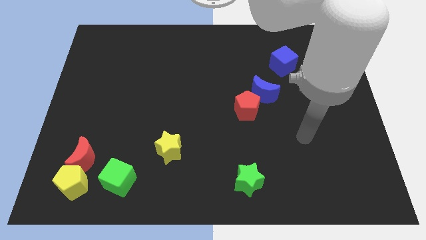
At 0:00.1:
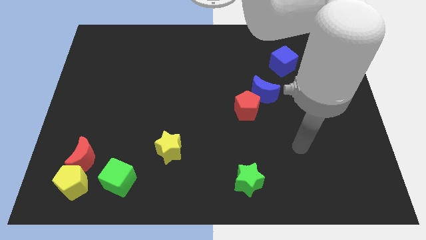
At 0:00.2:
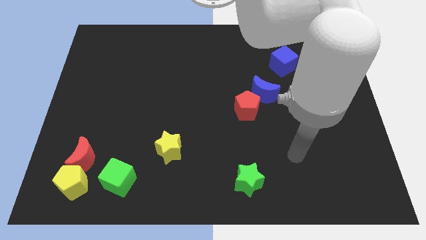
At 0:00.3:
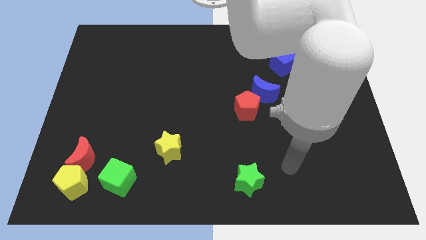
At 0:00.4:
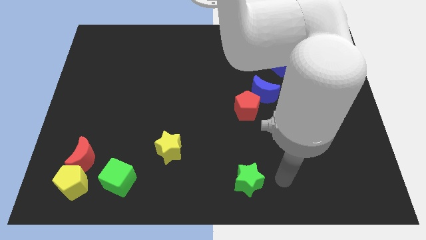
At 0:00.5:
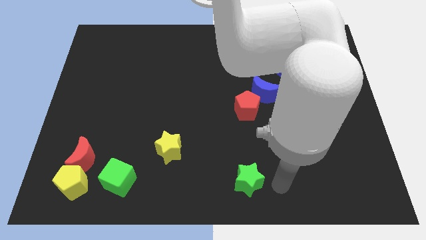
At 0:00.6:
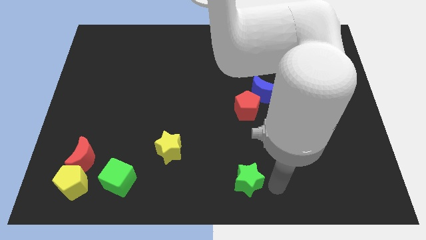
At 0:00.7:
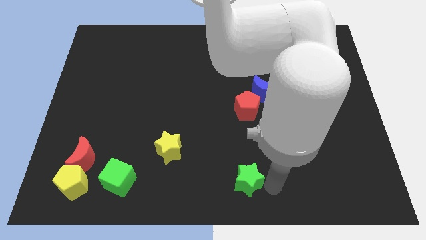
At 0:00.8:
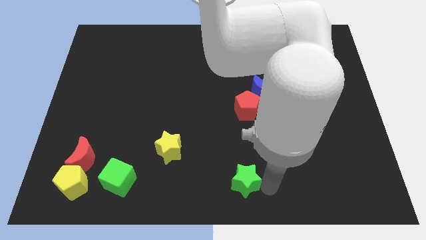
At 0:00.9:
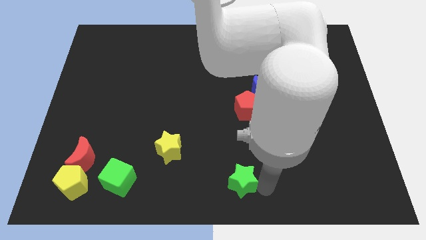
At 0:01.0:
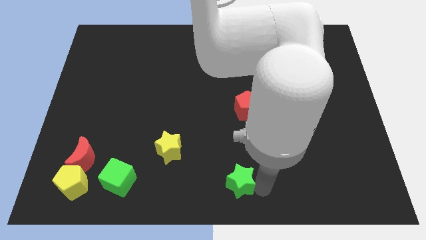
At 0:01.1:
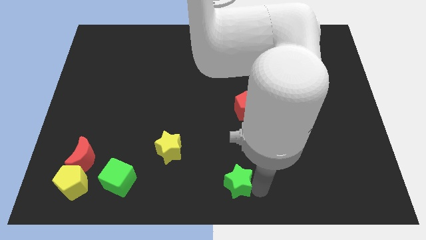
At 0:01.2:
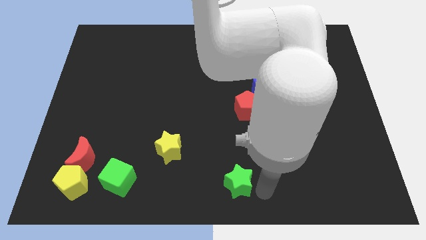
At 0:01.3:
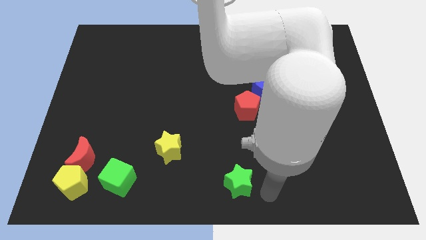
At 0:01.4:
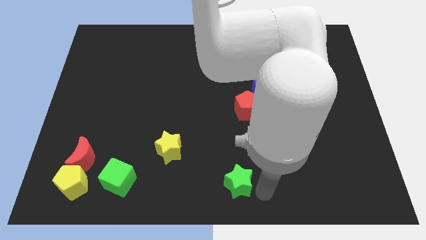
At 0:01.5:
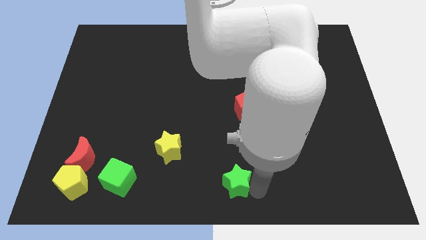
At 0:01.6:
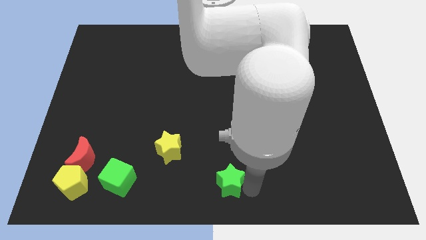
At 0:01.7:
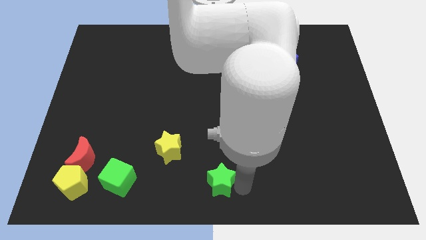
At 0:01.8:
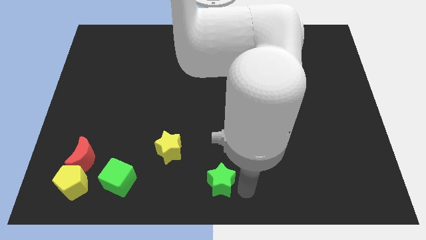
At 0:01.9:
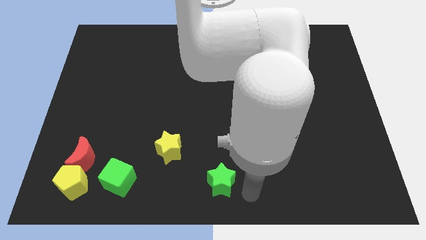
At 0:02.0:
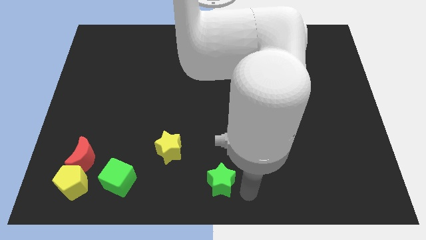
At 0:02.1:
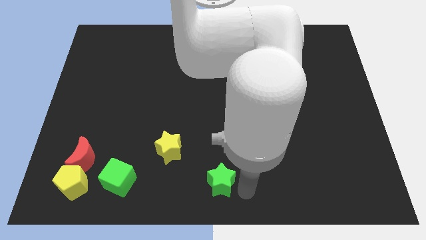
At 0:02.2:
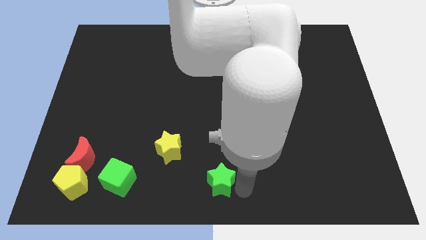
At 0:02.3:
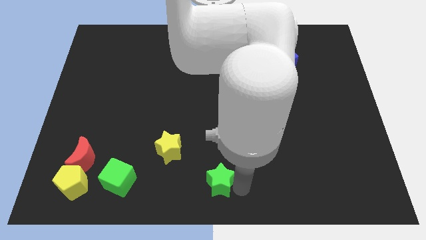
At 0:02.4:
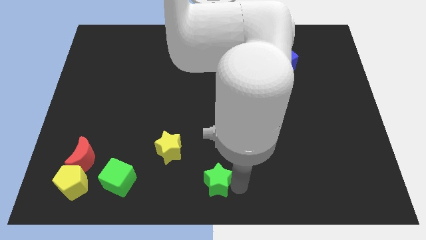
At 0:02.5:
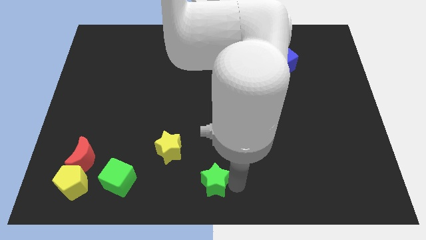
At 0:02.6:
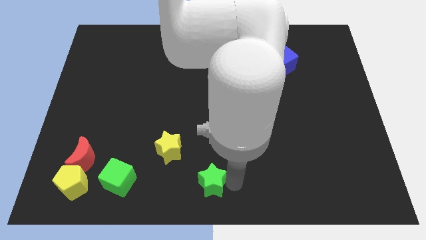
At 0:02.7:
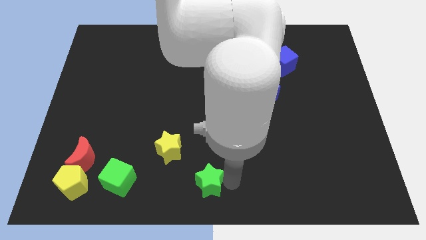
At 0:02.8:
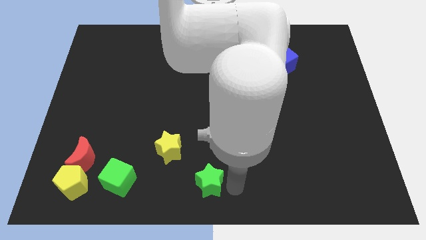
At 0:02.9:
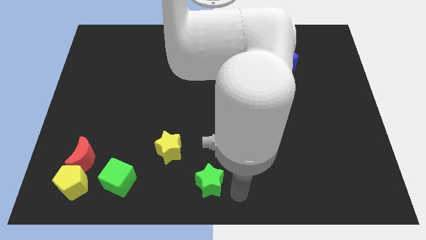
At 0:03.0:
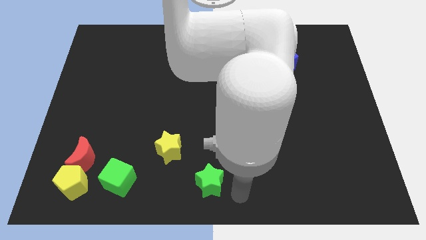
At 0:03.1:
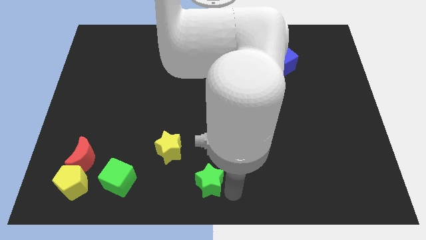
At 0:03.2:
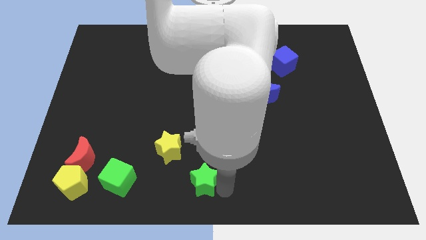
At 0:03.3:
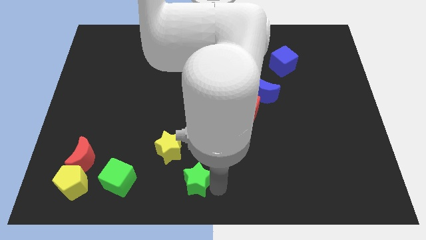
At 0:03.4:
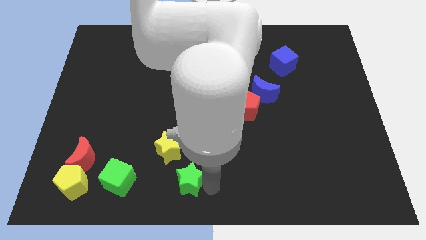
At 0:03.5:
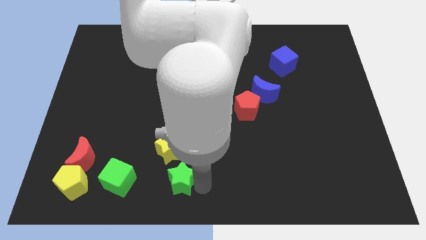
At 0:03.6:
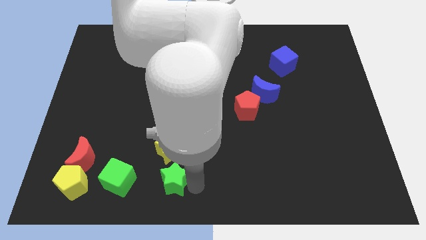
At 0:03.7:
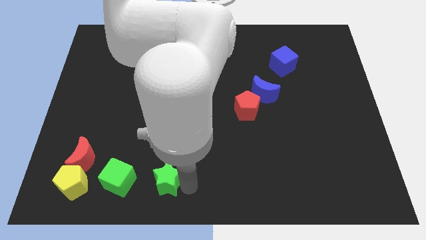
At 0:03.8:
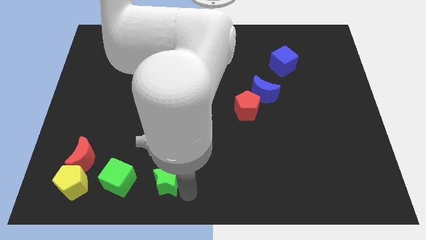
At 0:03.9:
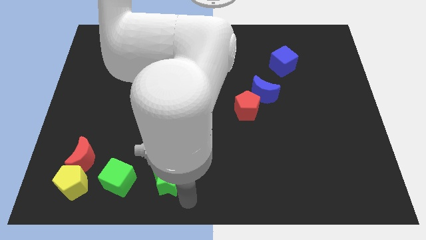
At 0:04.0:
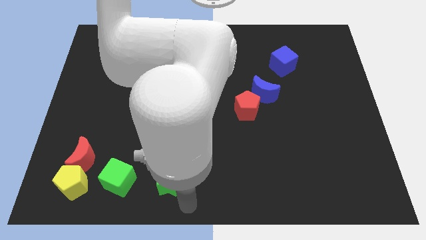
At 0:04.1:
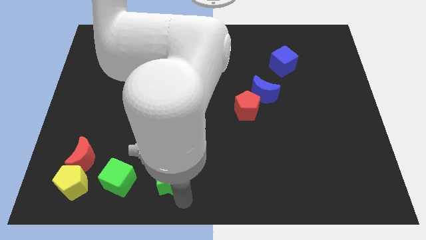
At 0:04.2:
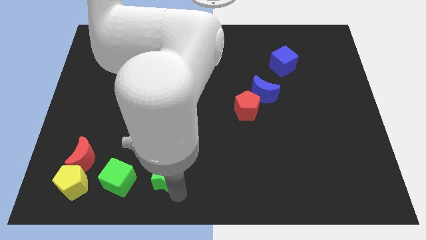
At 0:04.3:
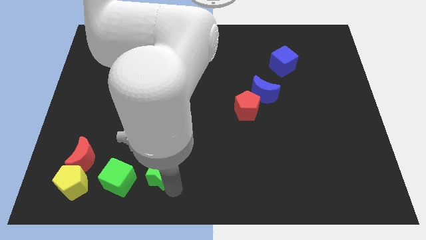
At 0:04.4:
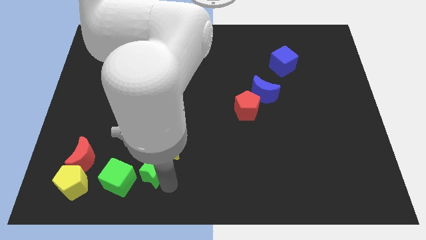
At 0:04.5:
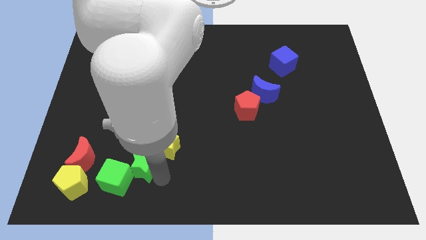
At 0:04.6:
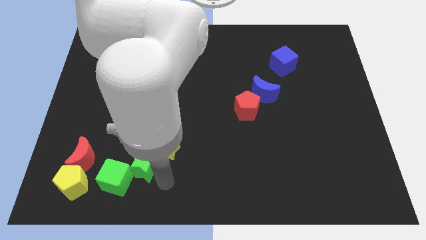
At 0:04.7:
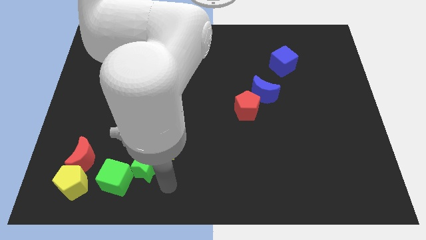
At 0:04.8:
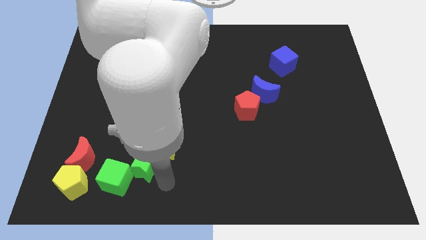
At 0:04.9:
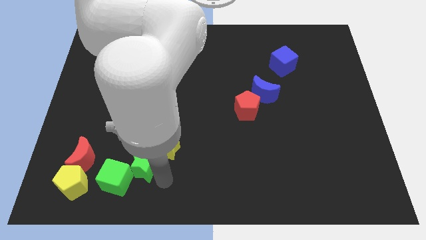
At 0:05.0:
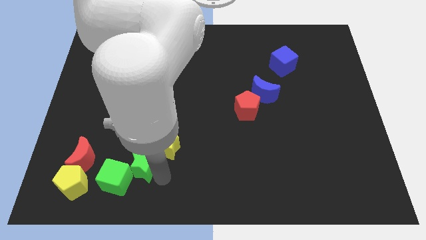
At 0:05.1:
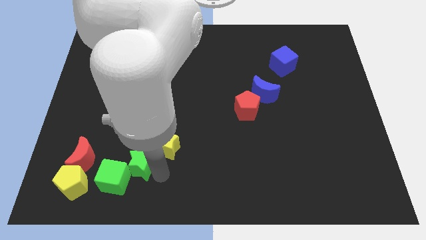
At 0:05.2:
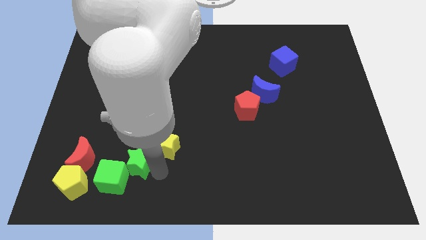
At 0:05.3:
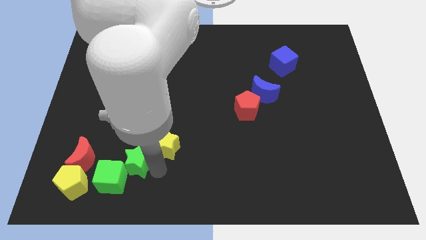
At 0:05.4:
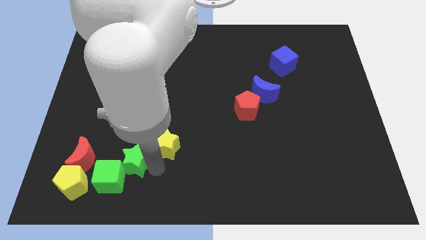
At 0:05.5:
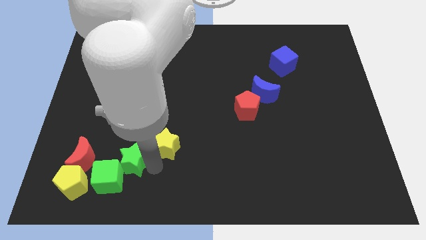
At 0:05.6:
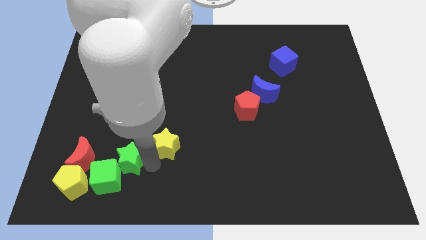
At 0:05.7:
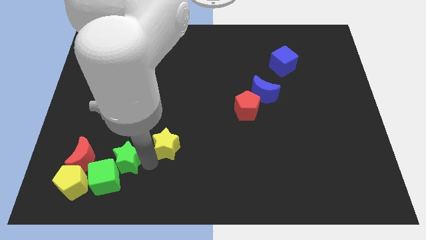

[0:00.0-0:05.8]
move the green star diagonally up and to the right of the yellow pentagon

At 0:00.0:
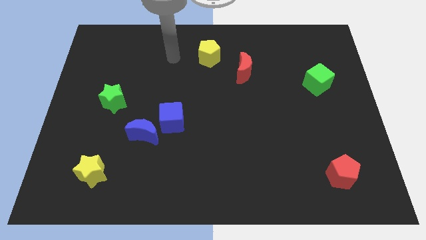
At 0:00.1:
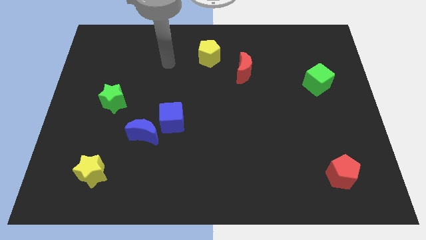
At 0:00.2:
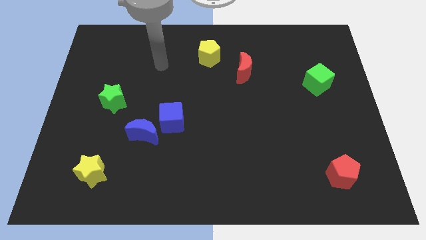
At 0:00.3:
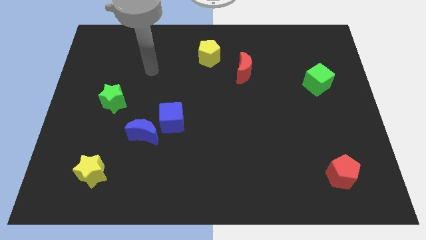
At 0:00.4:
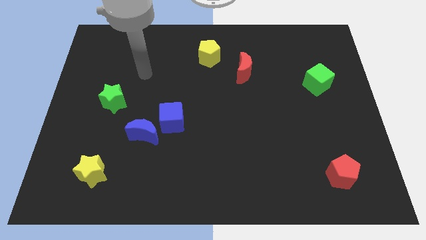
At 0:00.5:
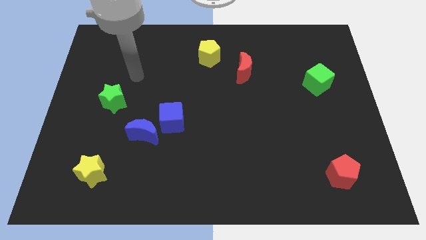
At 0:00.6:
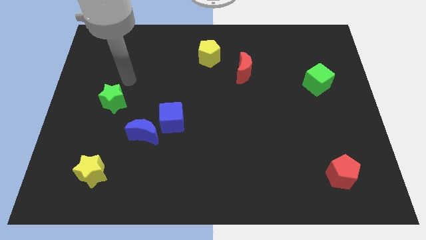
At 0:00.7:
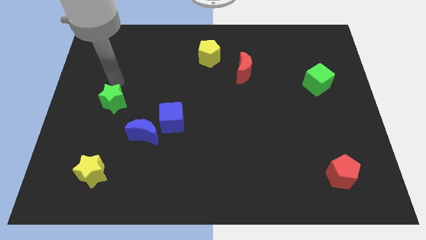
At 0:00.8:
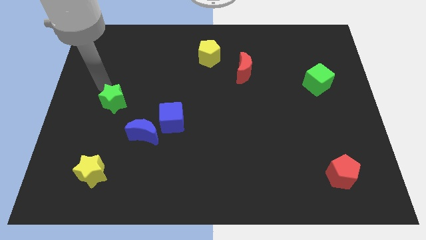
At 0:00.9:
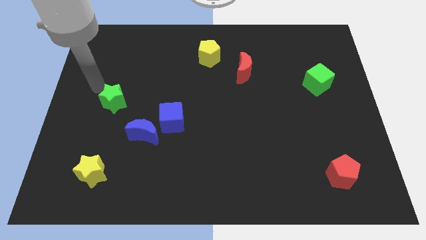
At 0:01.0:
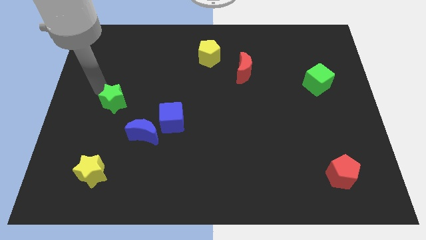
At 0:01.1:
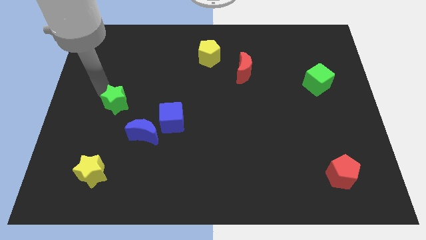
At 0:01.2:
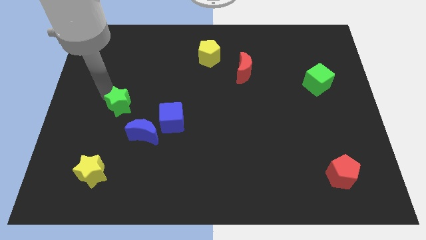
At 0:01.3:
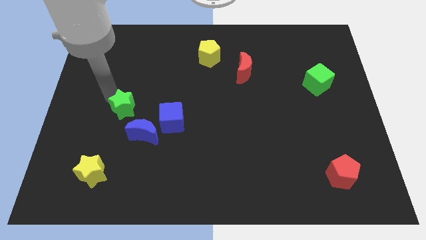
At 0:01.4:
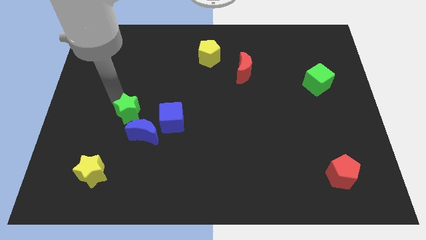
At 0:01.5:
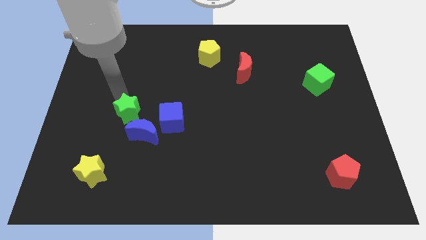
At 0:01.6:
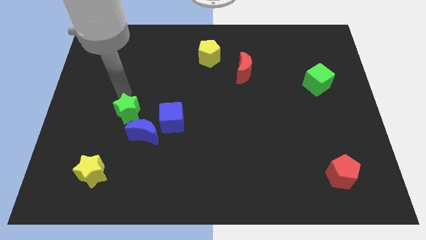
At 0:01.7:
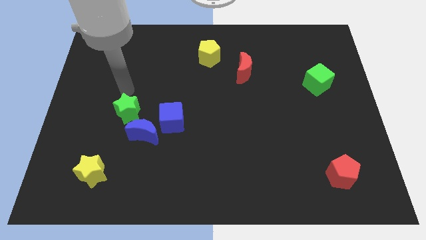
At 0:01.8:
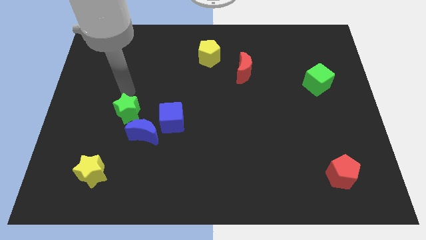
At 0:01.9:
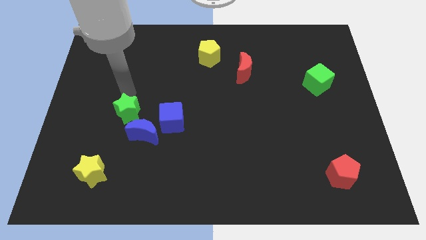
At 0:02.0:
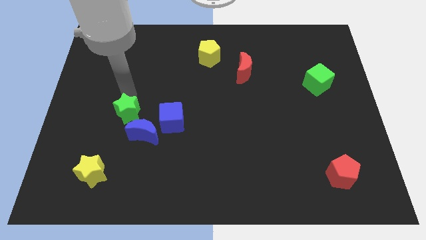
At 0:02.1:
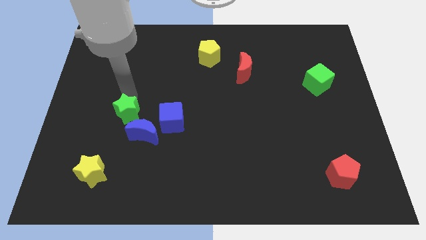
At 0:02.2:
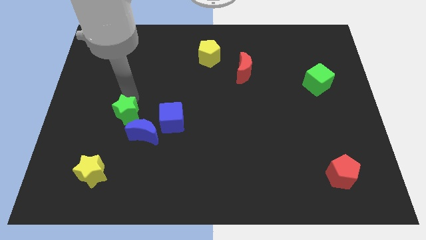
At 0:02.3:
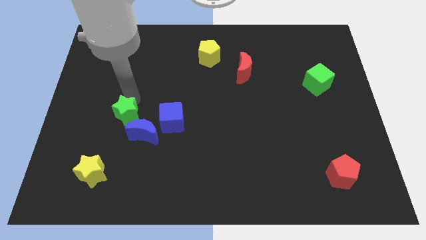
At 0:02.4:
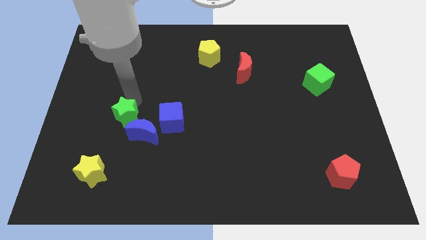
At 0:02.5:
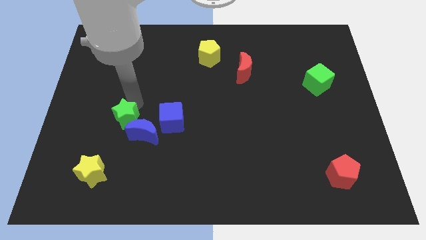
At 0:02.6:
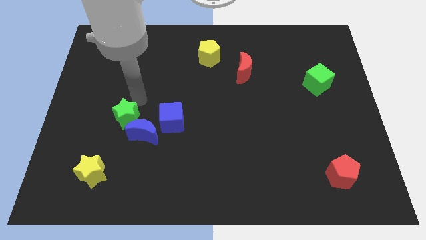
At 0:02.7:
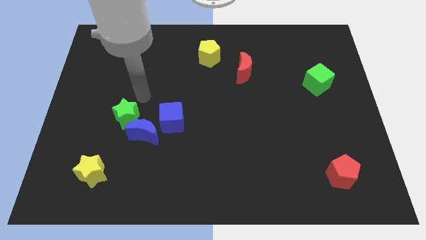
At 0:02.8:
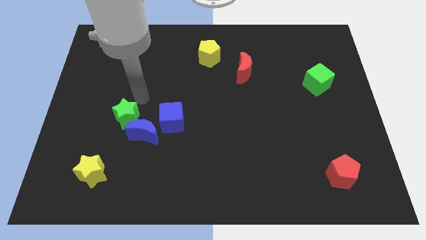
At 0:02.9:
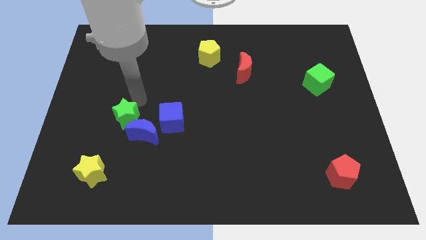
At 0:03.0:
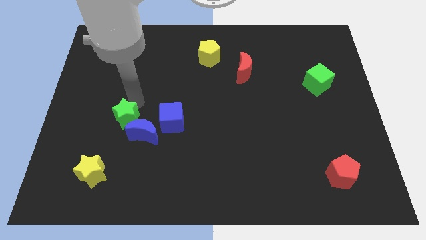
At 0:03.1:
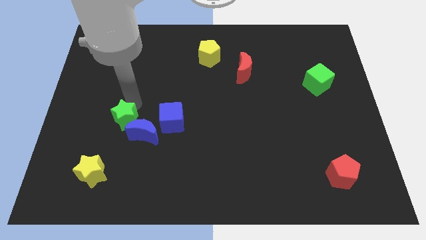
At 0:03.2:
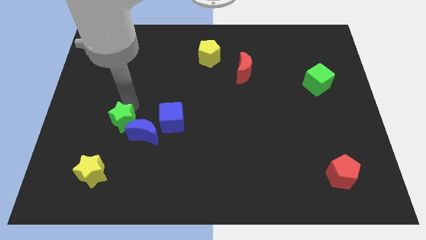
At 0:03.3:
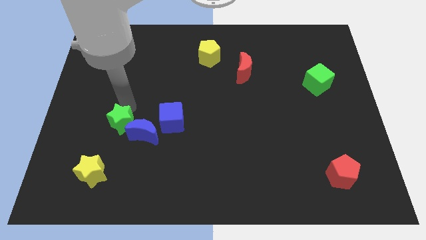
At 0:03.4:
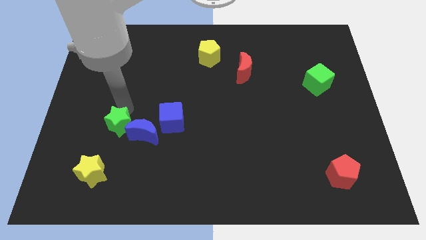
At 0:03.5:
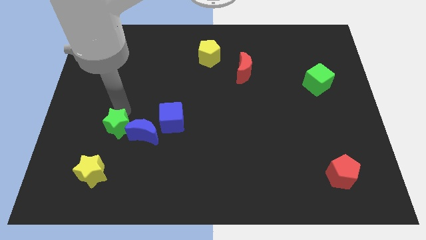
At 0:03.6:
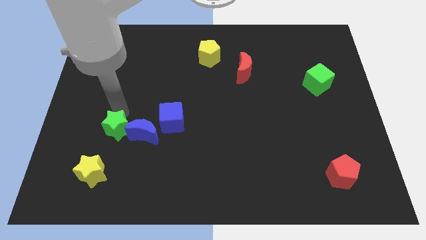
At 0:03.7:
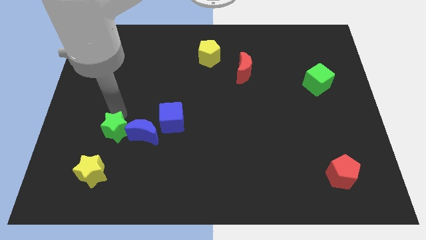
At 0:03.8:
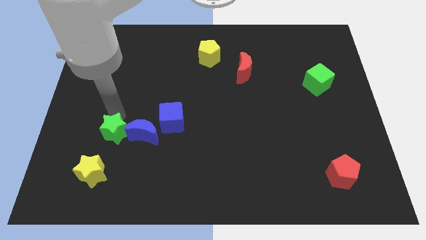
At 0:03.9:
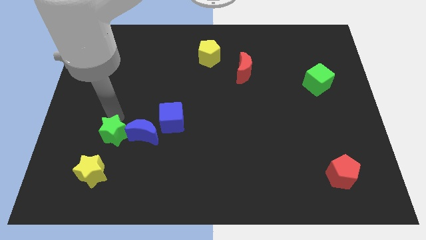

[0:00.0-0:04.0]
push the green star to the bottom left side of the blue moon
